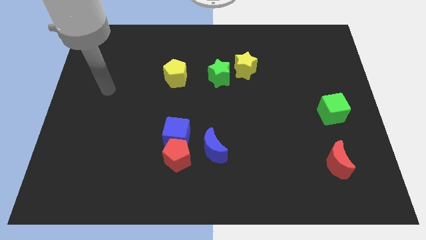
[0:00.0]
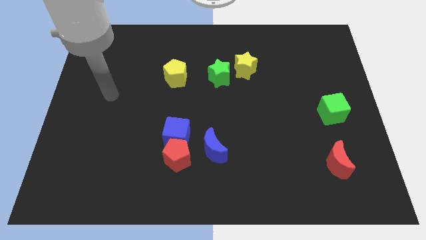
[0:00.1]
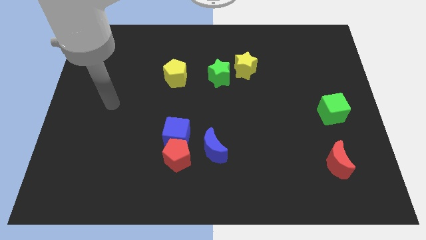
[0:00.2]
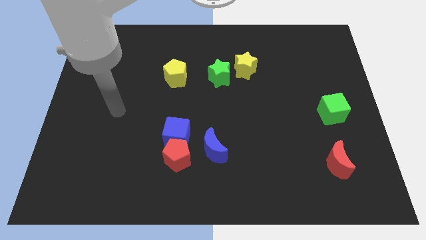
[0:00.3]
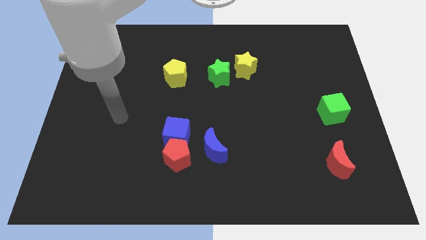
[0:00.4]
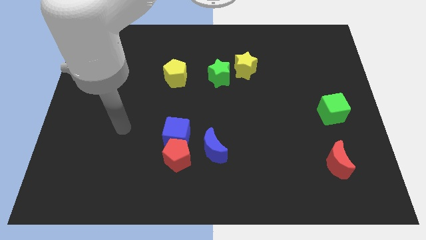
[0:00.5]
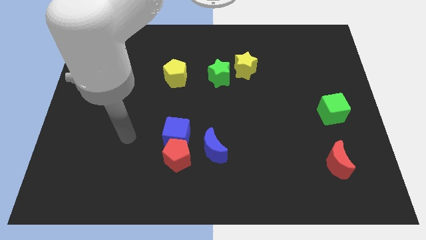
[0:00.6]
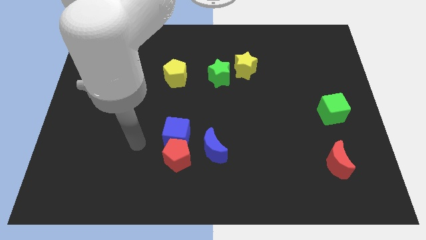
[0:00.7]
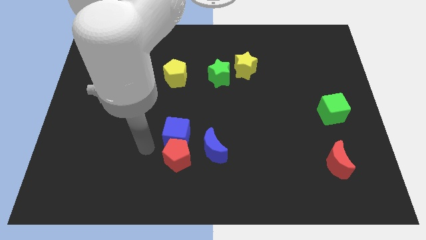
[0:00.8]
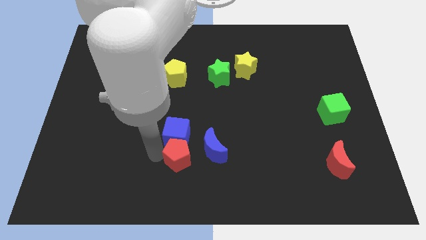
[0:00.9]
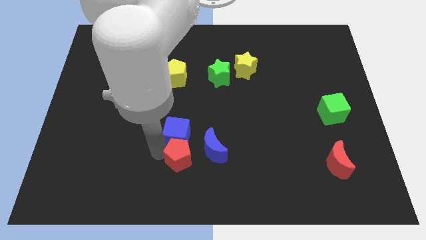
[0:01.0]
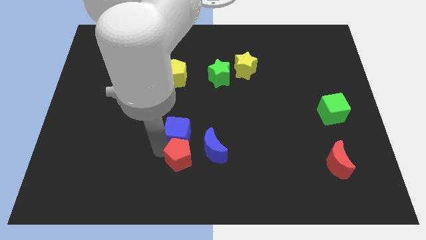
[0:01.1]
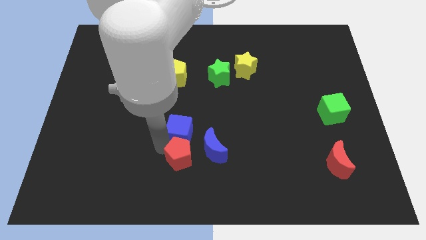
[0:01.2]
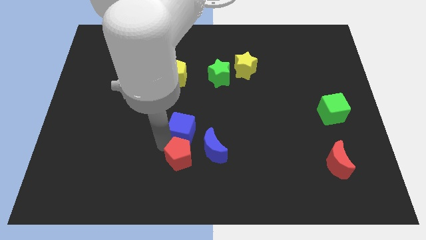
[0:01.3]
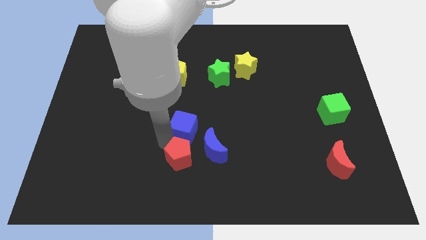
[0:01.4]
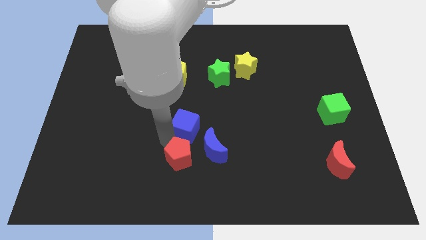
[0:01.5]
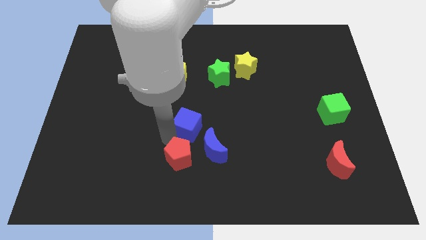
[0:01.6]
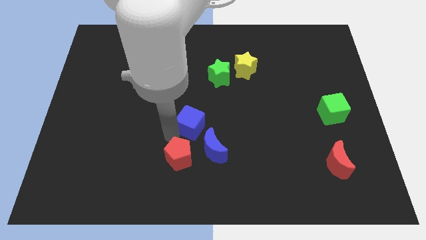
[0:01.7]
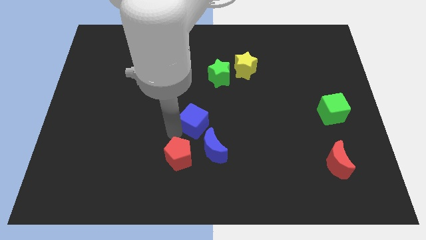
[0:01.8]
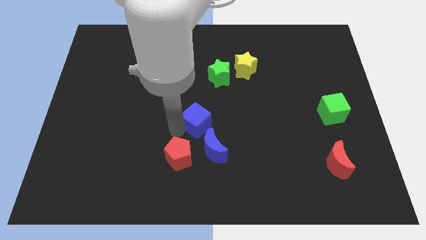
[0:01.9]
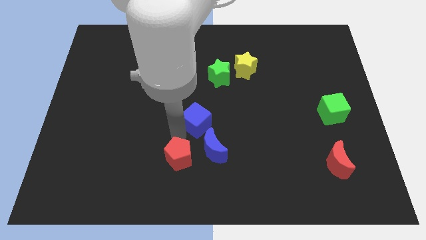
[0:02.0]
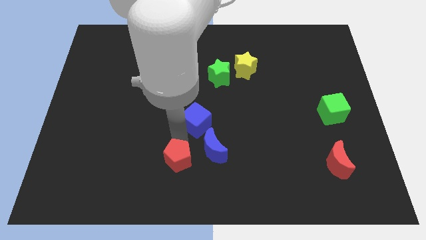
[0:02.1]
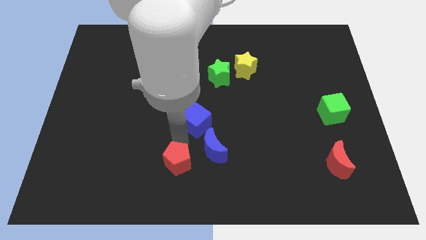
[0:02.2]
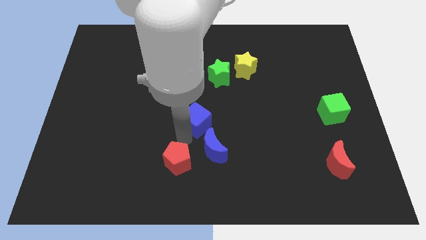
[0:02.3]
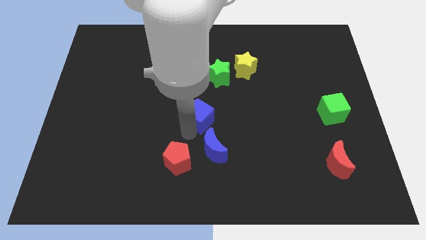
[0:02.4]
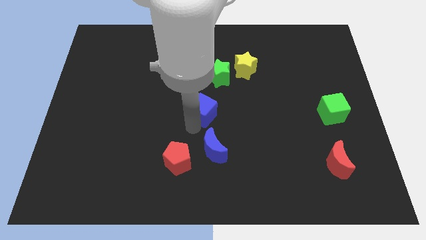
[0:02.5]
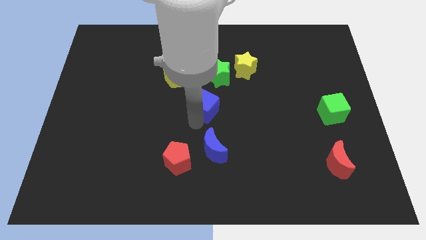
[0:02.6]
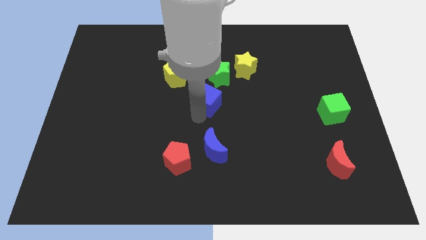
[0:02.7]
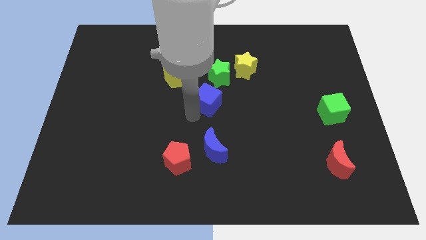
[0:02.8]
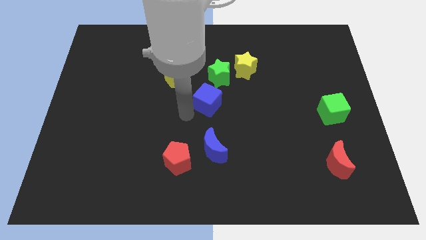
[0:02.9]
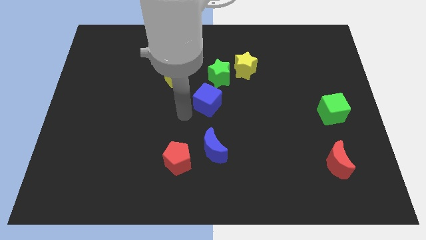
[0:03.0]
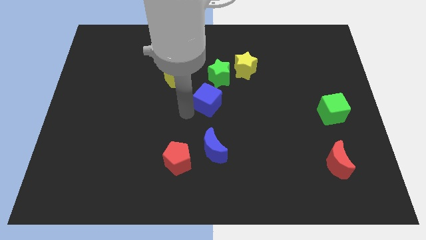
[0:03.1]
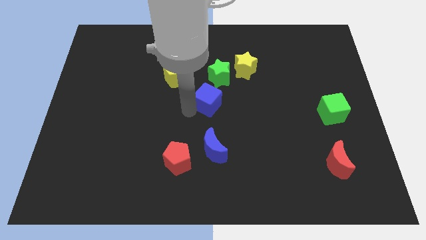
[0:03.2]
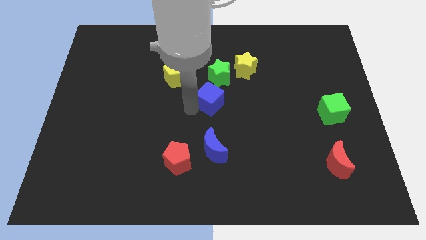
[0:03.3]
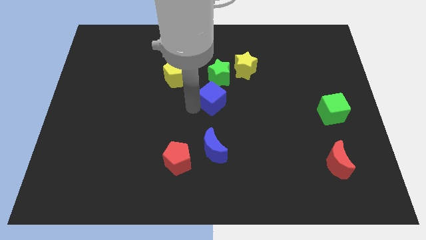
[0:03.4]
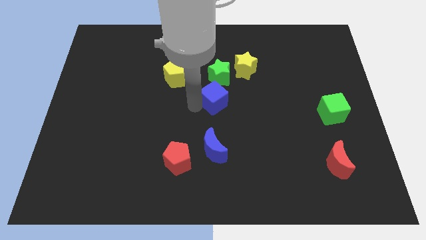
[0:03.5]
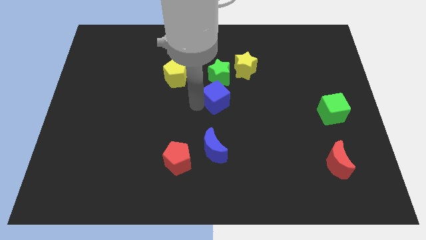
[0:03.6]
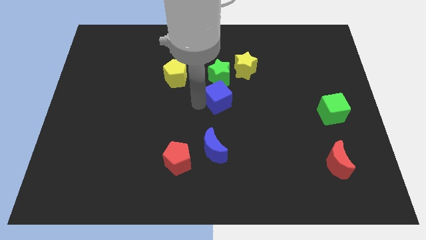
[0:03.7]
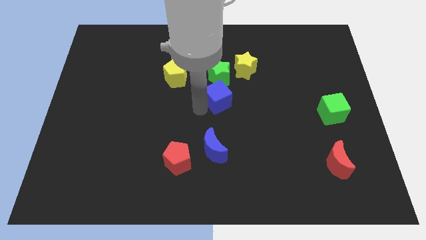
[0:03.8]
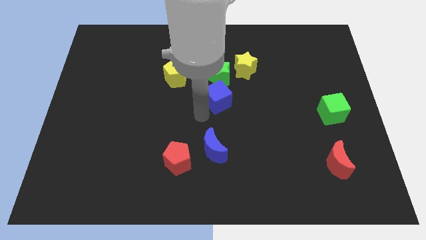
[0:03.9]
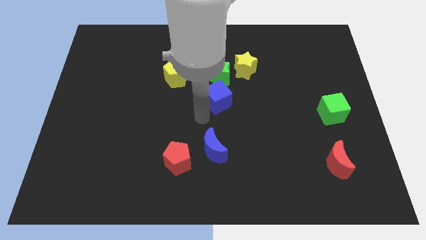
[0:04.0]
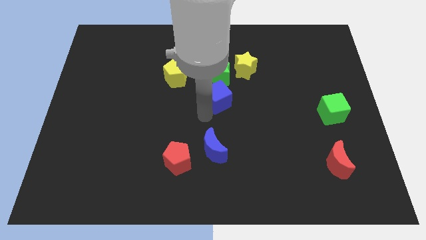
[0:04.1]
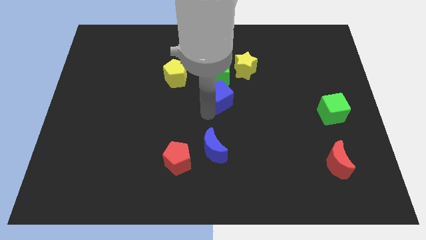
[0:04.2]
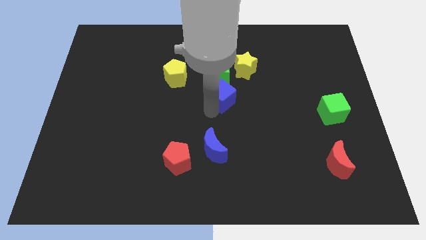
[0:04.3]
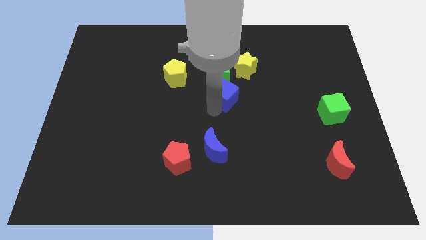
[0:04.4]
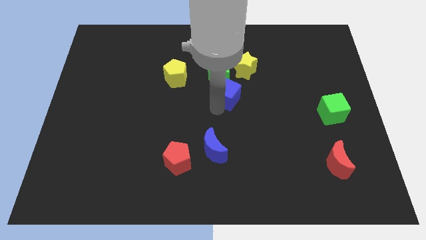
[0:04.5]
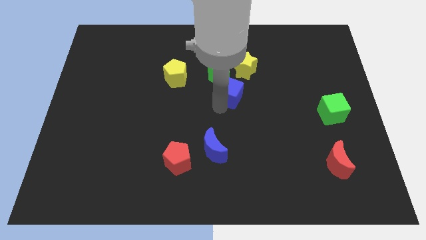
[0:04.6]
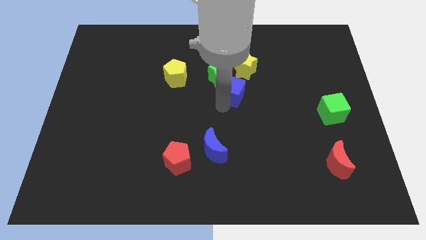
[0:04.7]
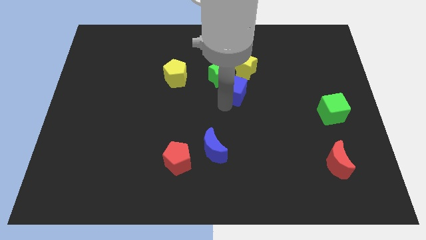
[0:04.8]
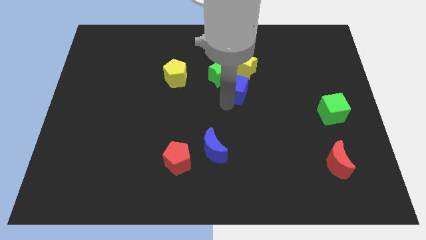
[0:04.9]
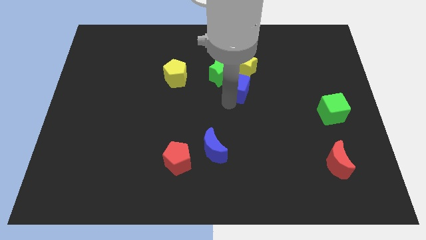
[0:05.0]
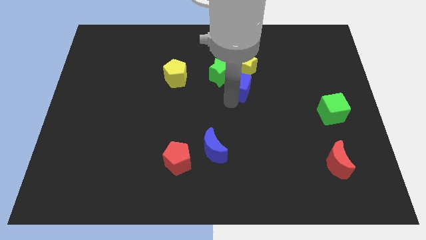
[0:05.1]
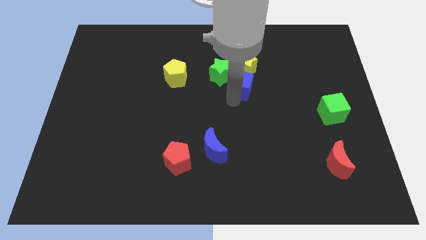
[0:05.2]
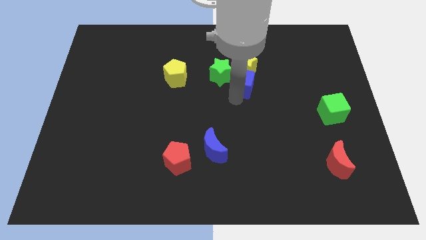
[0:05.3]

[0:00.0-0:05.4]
push the blue cube next to the yellow star

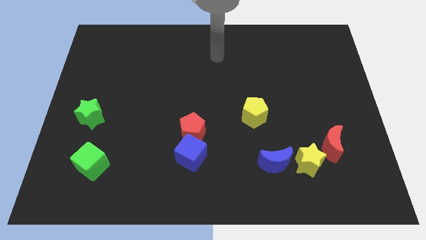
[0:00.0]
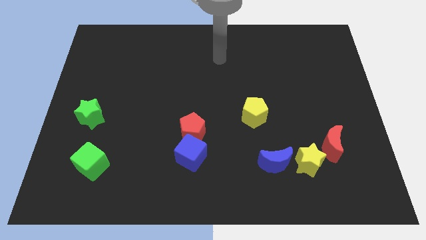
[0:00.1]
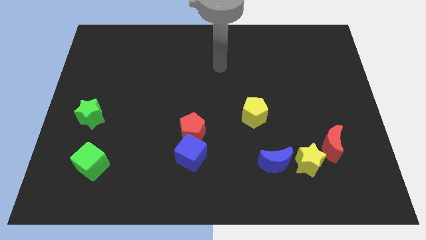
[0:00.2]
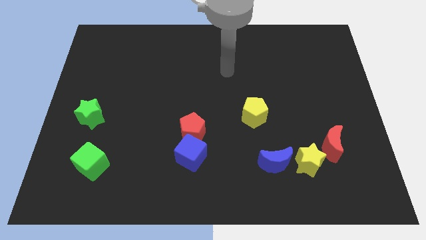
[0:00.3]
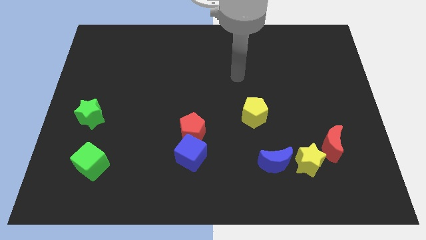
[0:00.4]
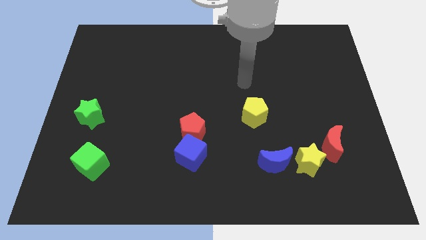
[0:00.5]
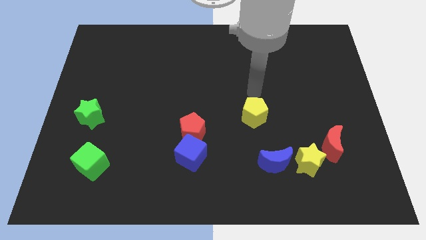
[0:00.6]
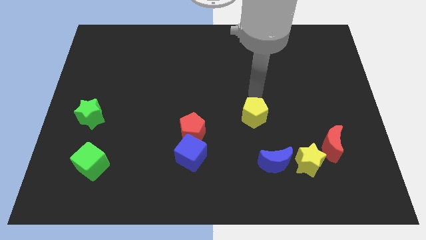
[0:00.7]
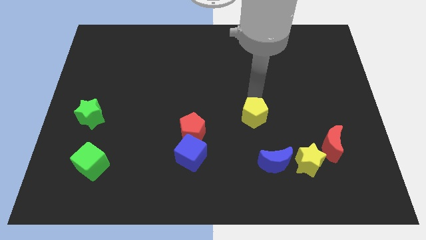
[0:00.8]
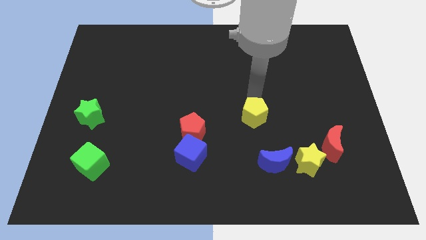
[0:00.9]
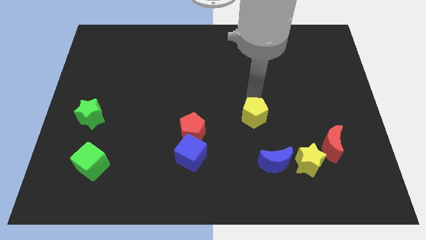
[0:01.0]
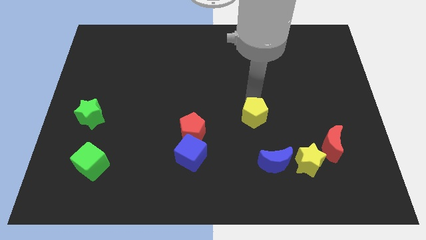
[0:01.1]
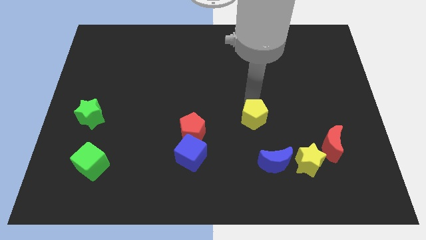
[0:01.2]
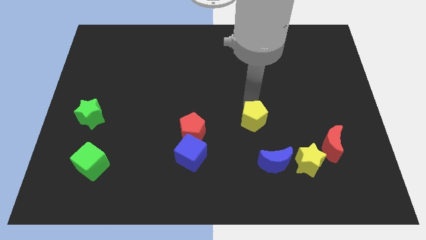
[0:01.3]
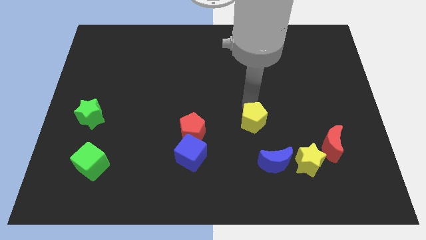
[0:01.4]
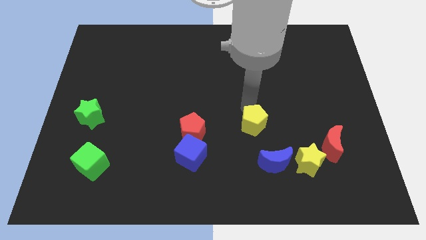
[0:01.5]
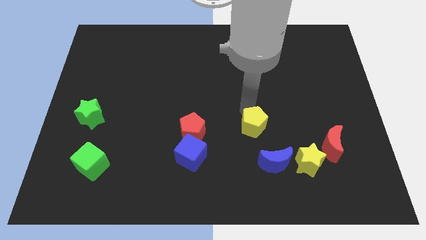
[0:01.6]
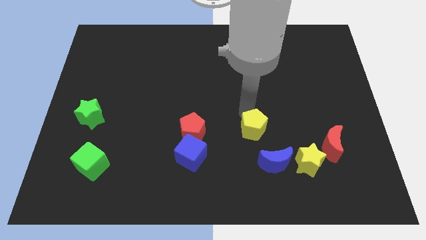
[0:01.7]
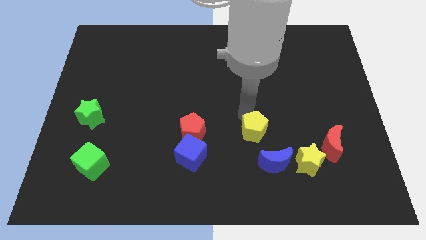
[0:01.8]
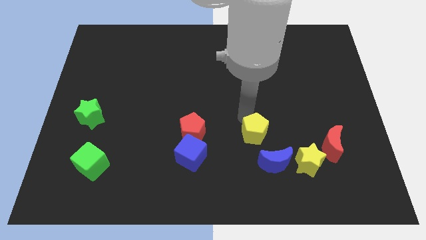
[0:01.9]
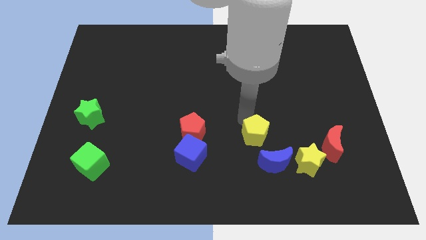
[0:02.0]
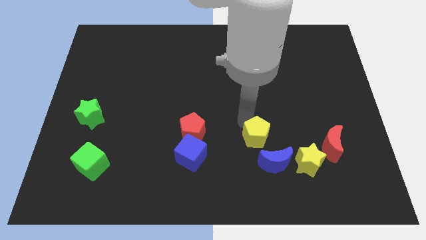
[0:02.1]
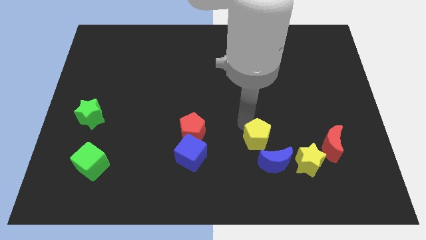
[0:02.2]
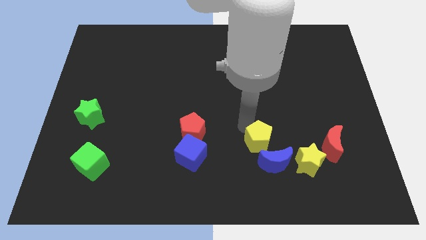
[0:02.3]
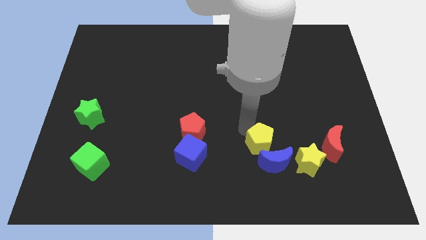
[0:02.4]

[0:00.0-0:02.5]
put the yellow pentagon next to the blue moon
